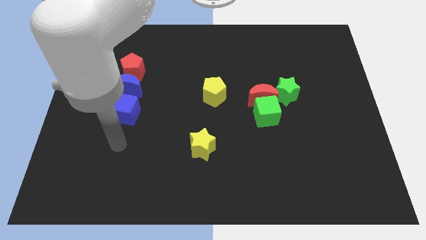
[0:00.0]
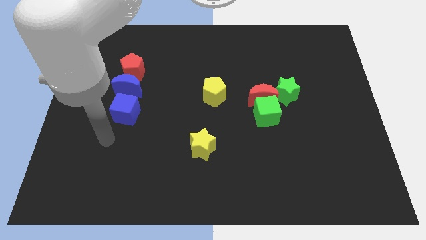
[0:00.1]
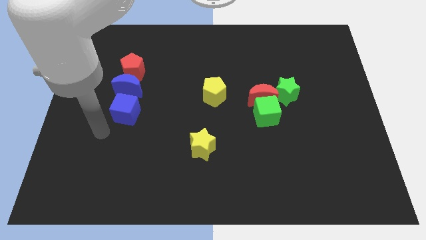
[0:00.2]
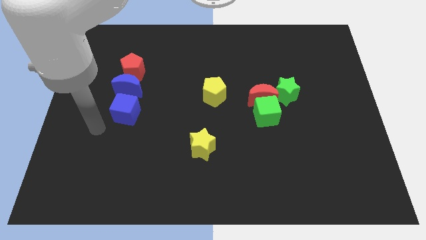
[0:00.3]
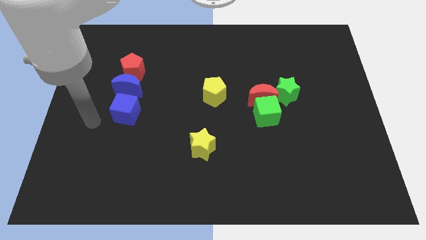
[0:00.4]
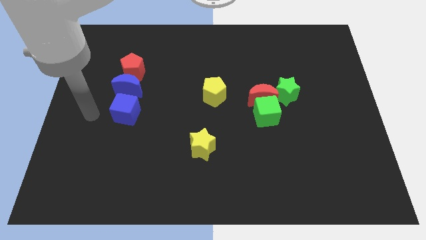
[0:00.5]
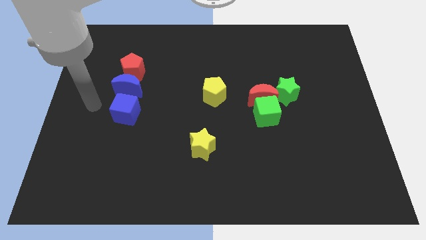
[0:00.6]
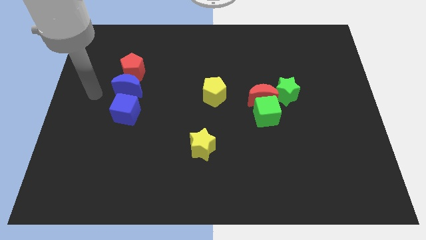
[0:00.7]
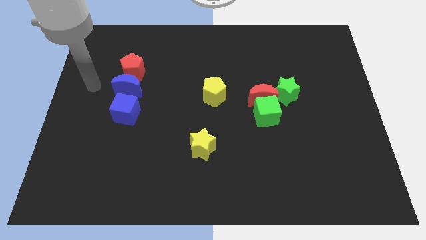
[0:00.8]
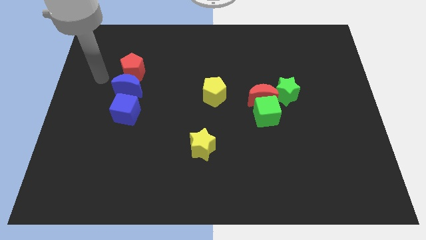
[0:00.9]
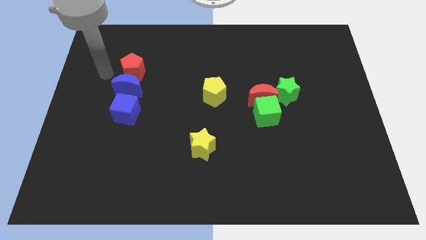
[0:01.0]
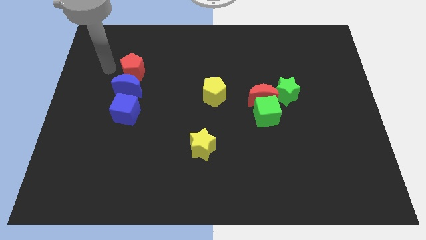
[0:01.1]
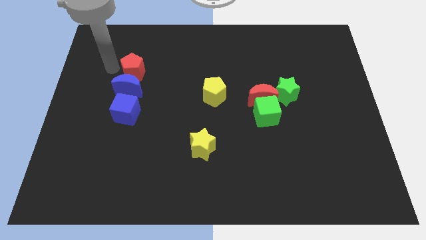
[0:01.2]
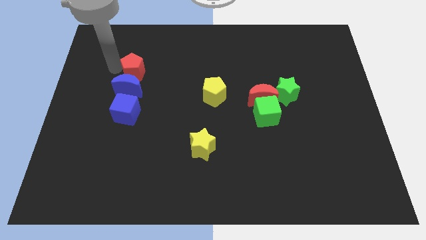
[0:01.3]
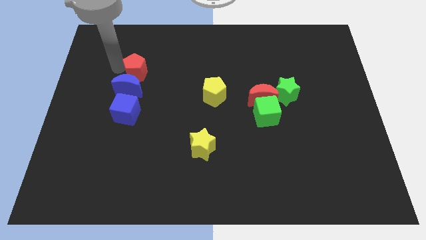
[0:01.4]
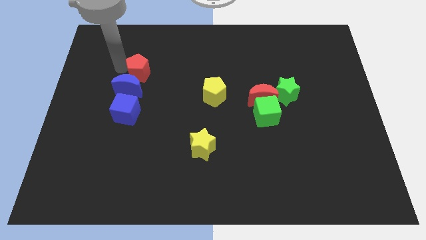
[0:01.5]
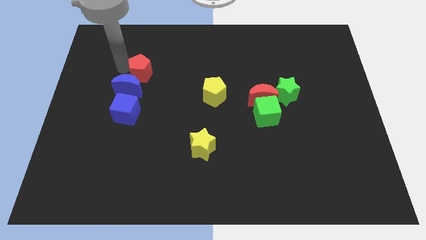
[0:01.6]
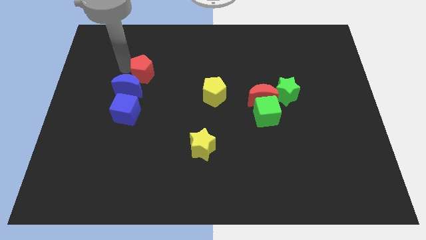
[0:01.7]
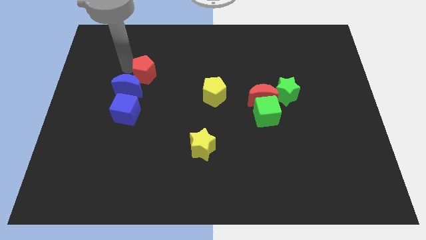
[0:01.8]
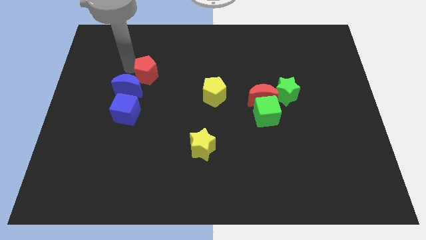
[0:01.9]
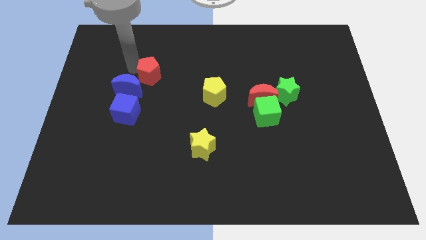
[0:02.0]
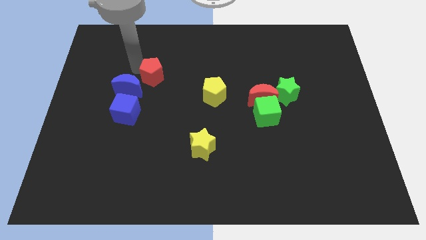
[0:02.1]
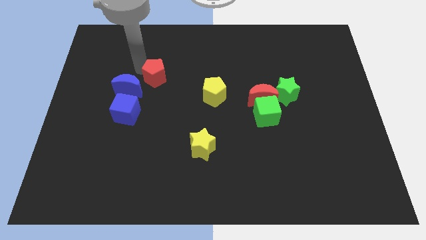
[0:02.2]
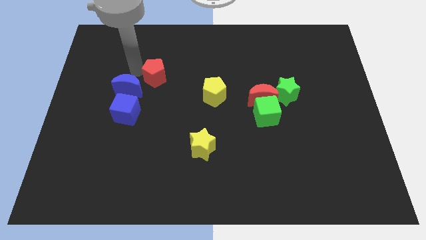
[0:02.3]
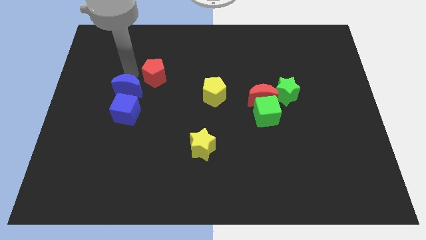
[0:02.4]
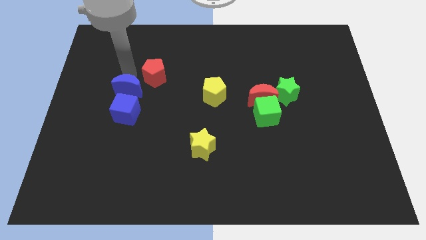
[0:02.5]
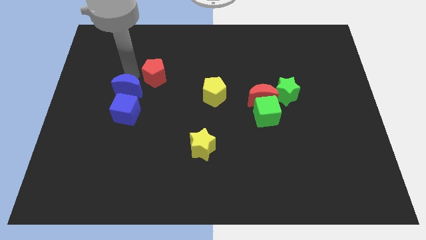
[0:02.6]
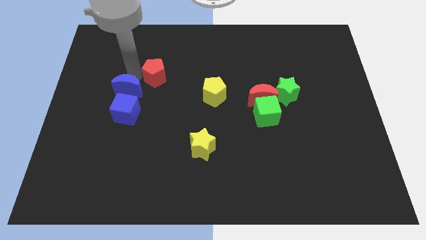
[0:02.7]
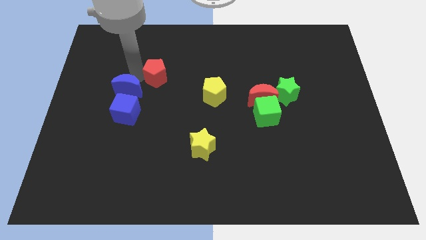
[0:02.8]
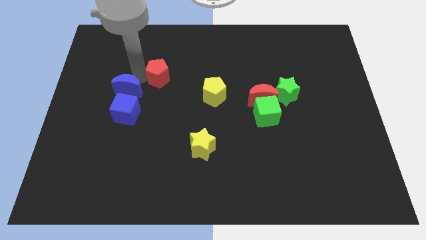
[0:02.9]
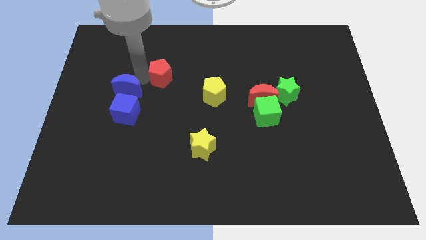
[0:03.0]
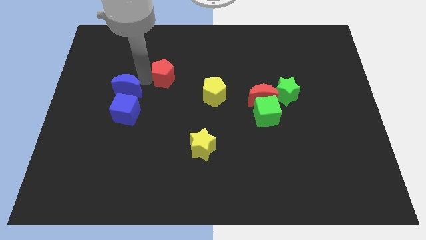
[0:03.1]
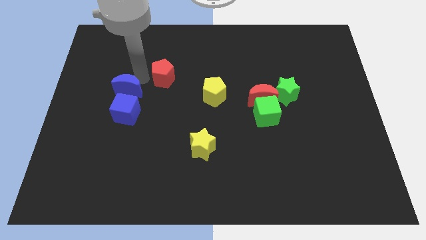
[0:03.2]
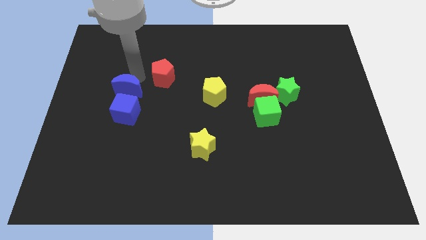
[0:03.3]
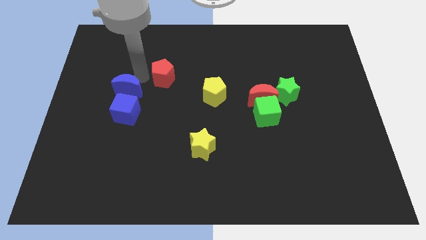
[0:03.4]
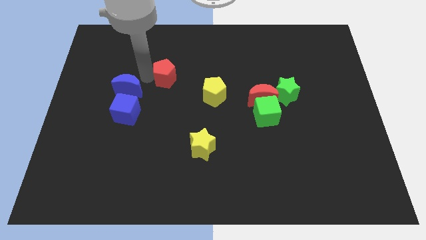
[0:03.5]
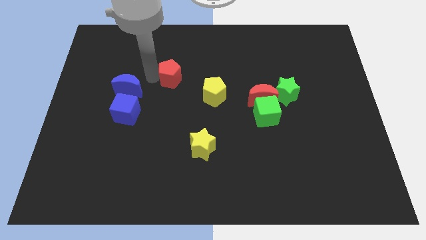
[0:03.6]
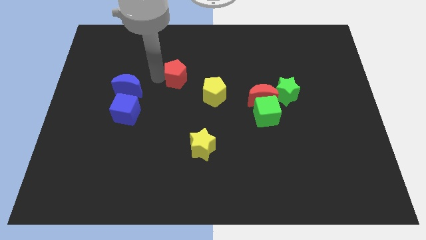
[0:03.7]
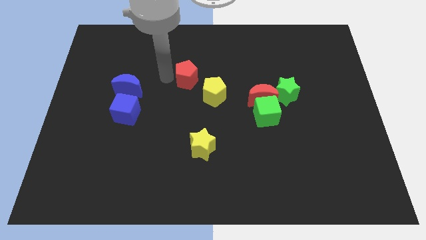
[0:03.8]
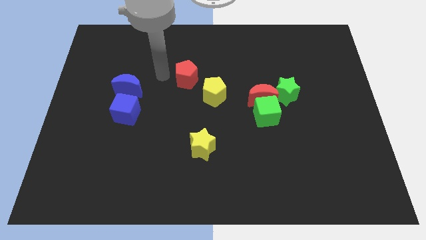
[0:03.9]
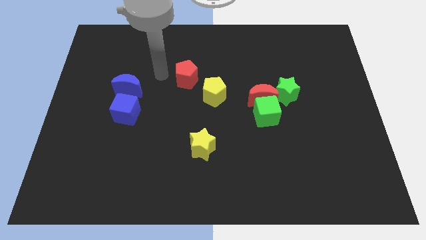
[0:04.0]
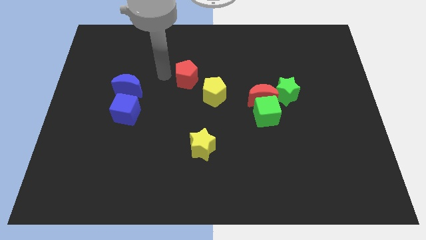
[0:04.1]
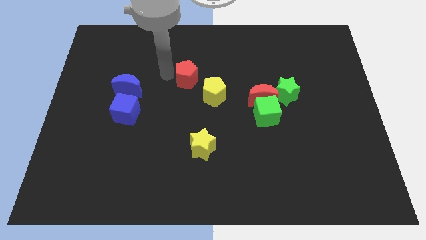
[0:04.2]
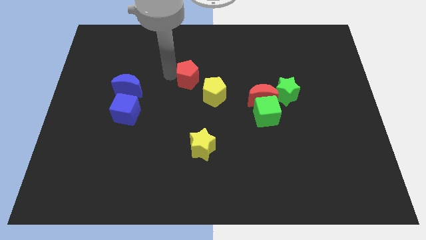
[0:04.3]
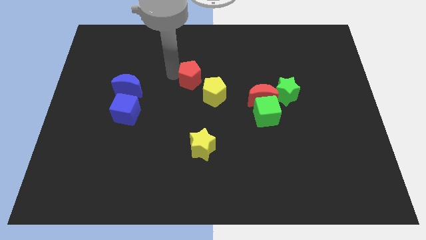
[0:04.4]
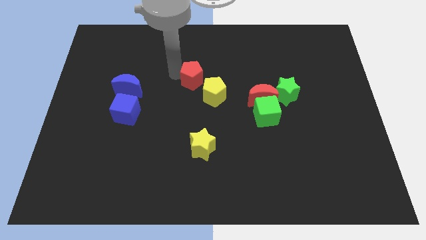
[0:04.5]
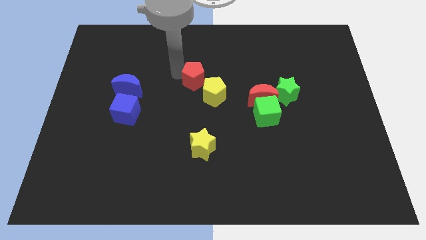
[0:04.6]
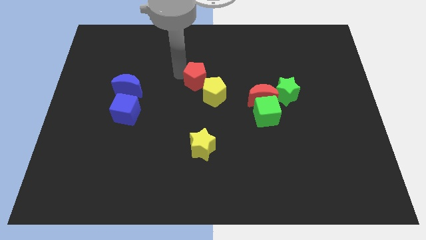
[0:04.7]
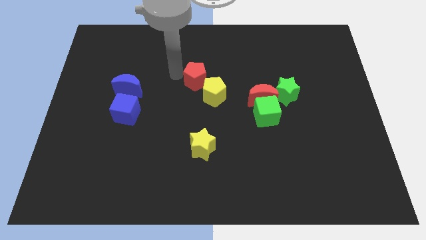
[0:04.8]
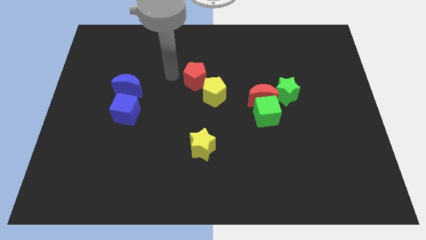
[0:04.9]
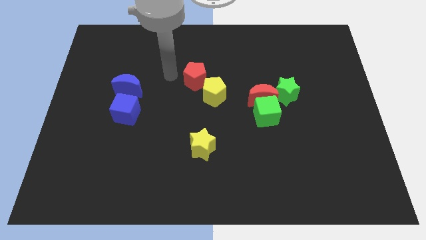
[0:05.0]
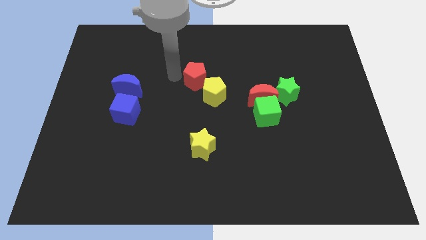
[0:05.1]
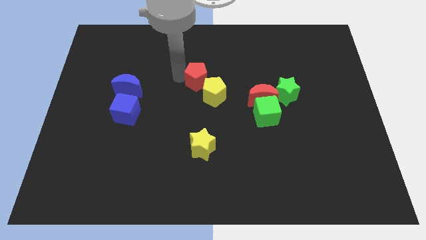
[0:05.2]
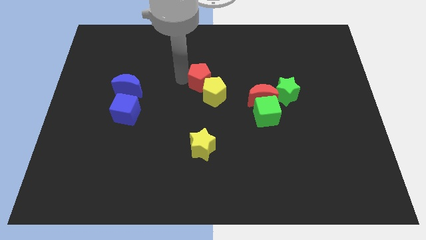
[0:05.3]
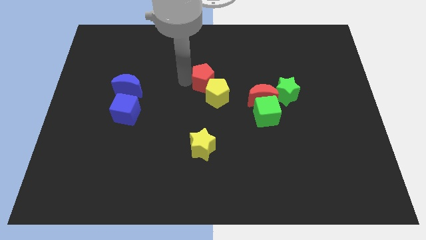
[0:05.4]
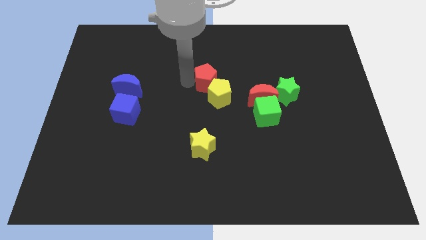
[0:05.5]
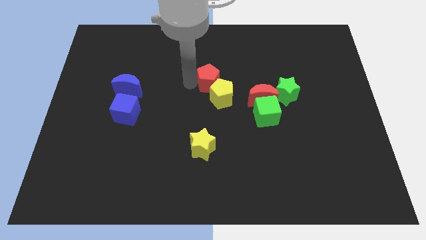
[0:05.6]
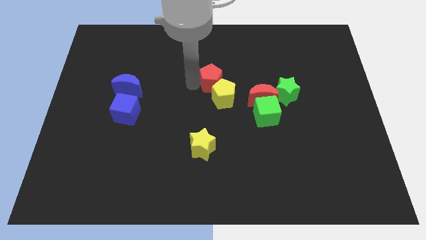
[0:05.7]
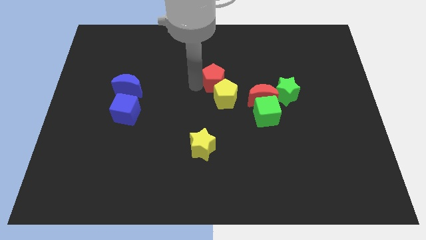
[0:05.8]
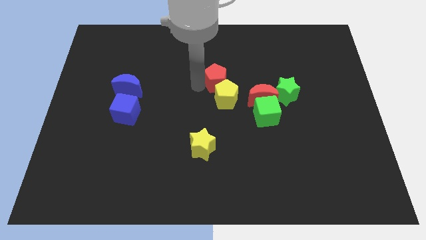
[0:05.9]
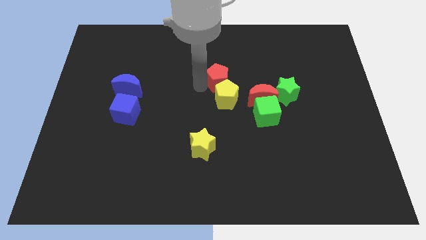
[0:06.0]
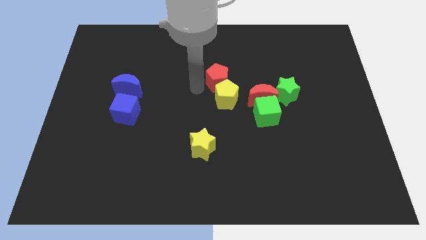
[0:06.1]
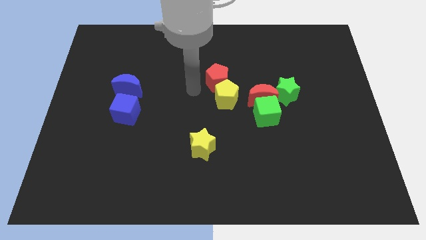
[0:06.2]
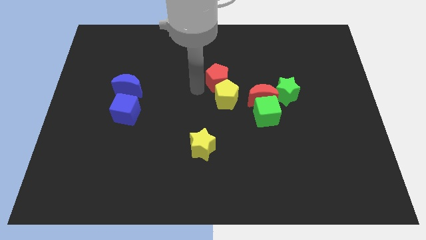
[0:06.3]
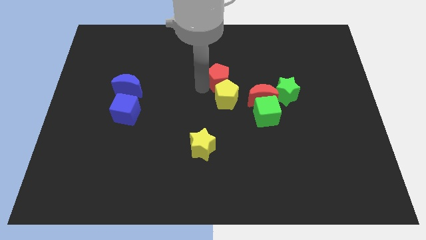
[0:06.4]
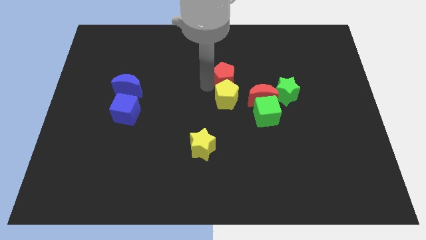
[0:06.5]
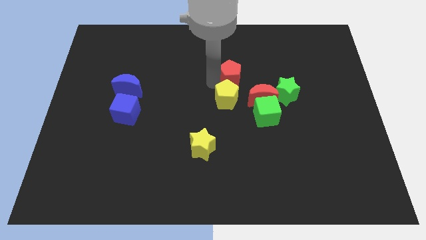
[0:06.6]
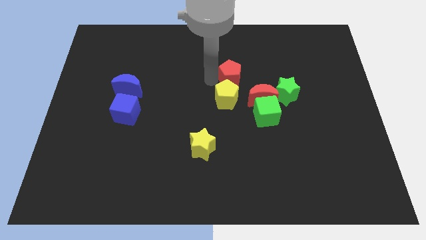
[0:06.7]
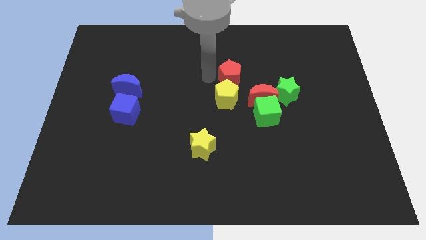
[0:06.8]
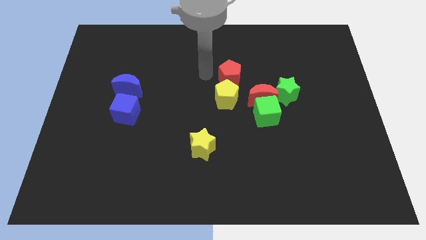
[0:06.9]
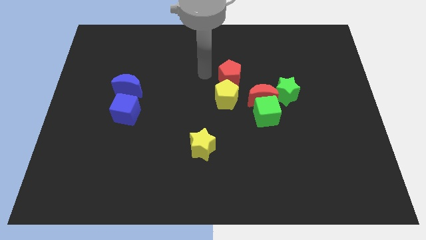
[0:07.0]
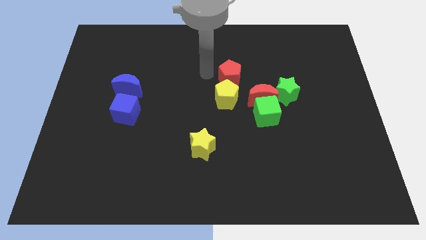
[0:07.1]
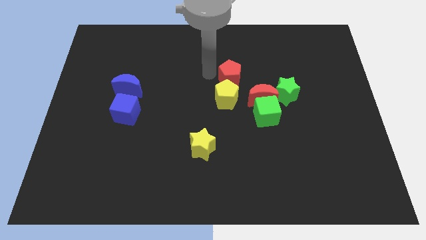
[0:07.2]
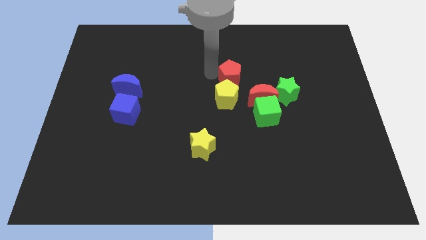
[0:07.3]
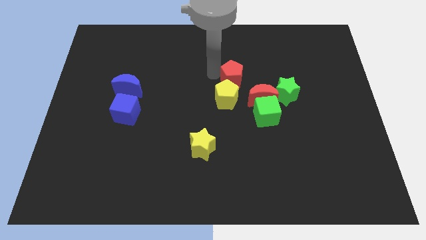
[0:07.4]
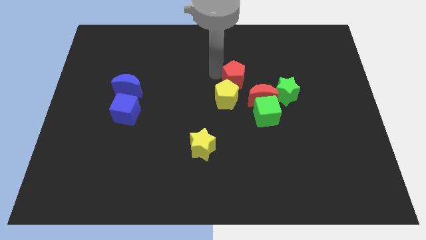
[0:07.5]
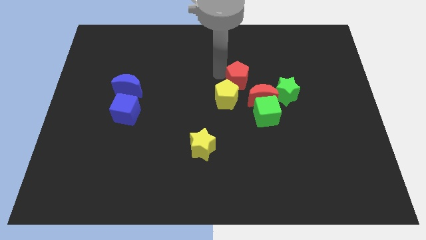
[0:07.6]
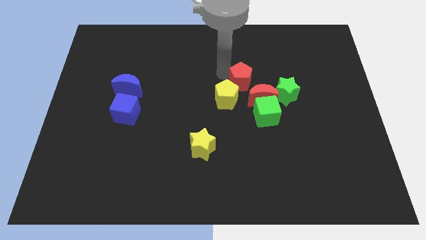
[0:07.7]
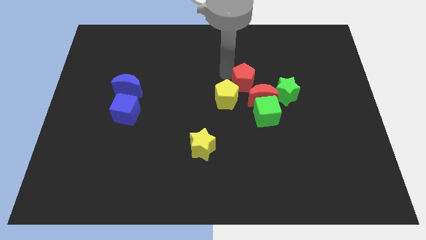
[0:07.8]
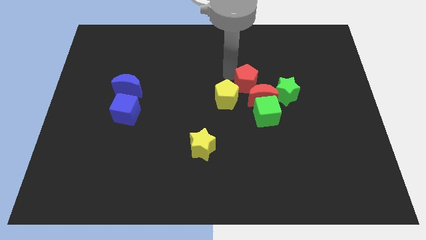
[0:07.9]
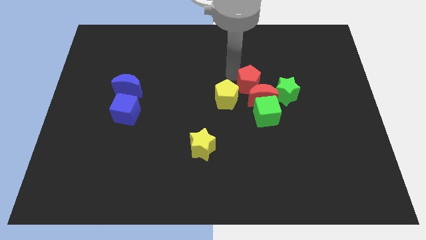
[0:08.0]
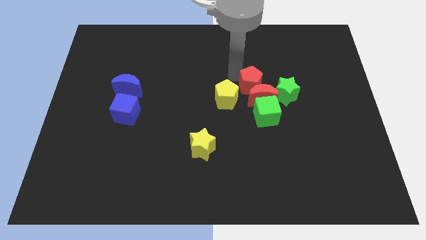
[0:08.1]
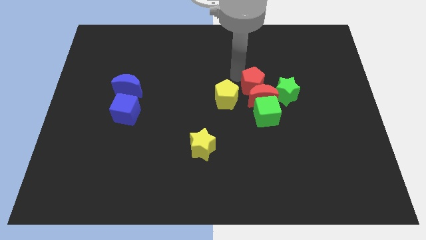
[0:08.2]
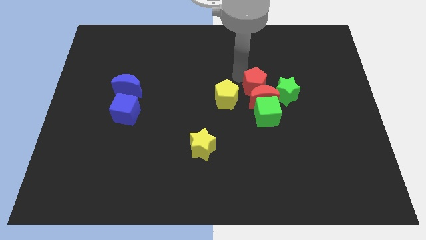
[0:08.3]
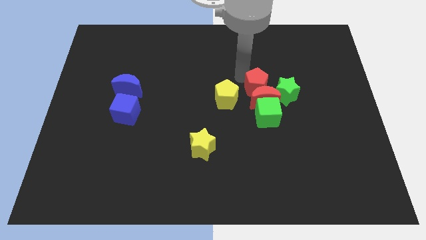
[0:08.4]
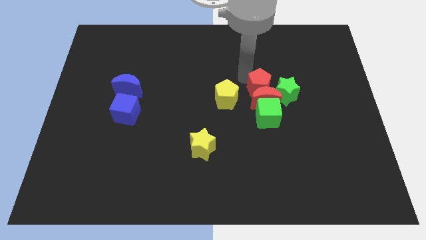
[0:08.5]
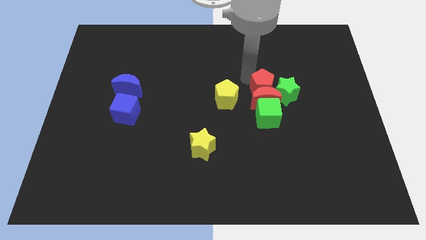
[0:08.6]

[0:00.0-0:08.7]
push the red pentagon next to the green star
